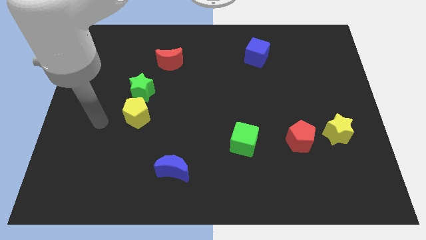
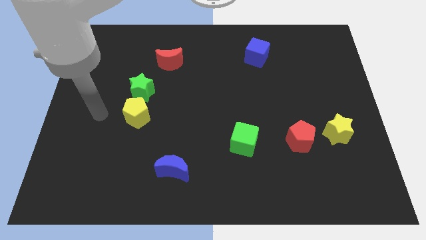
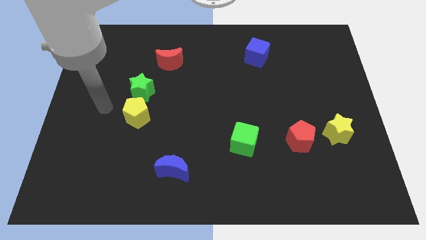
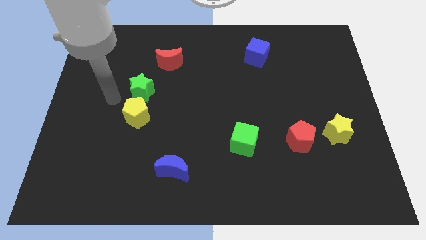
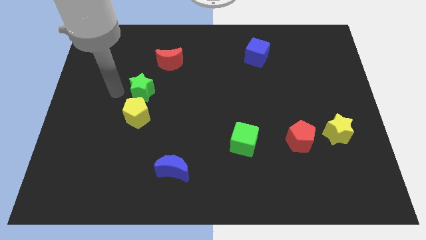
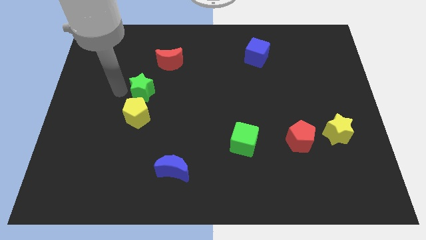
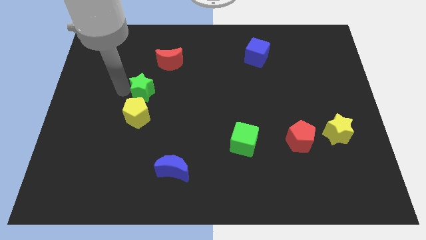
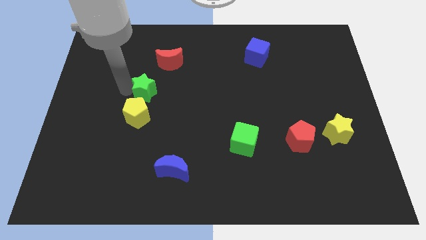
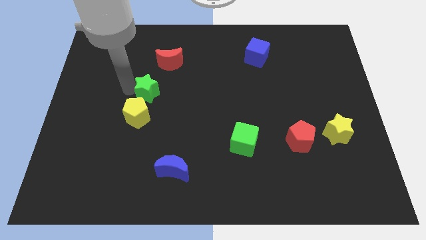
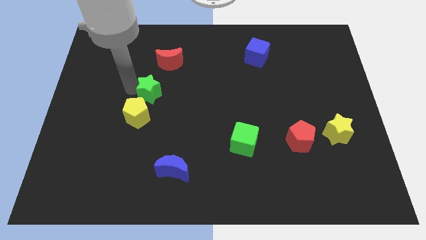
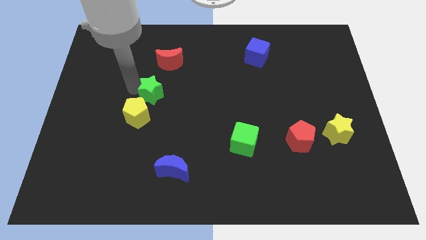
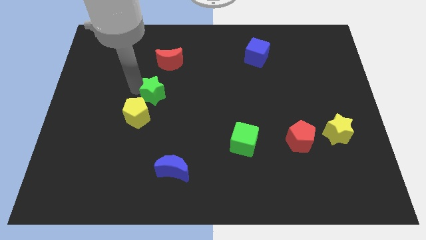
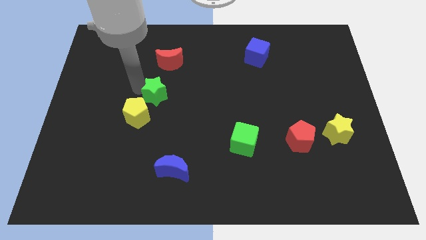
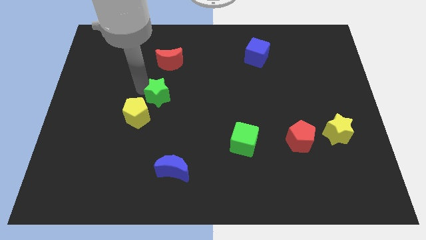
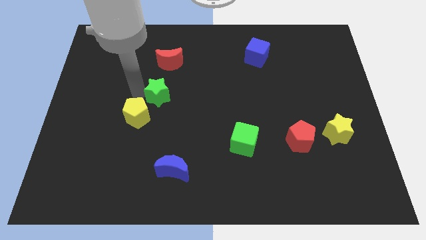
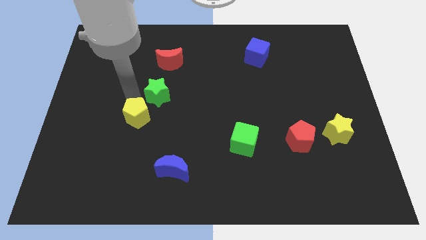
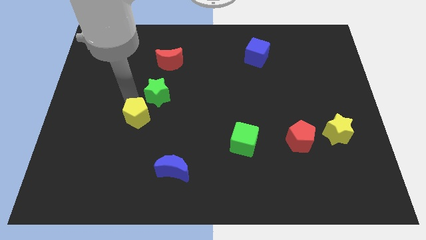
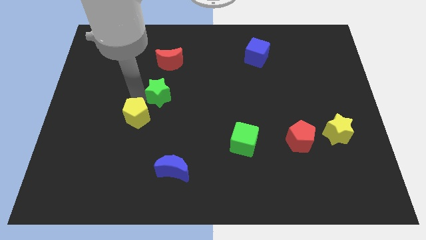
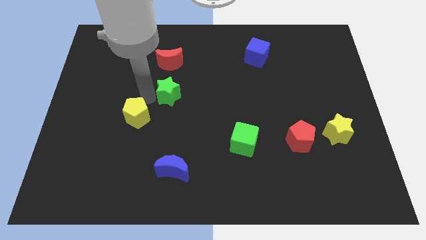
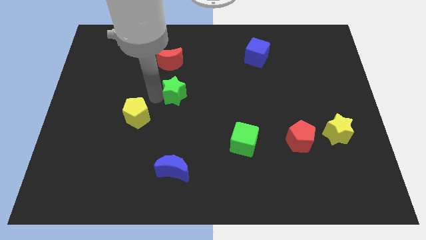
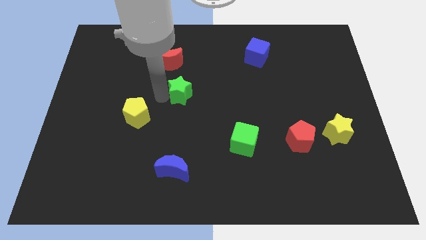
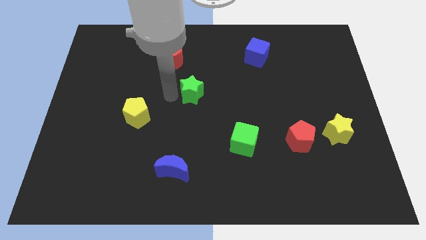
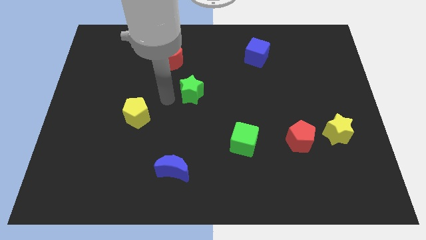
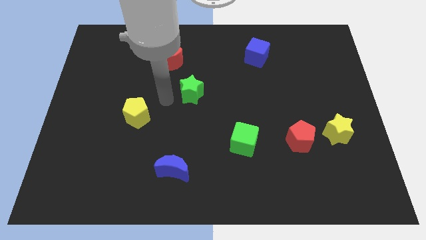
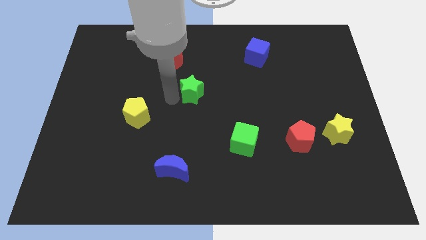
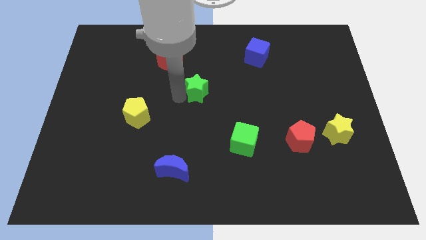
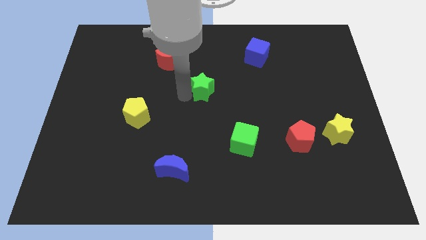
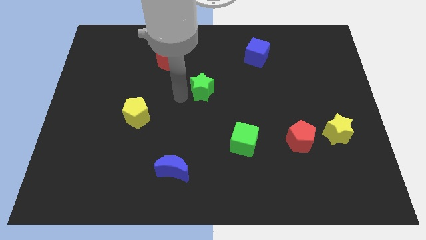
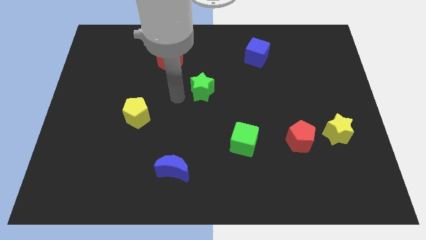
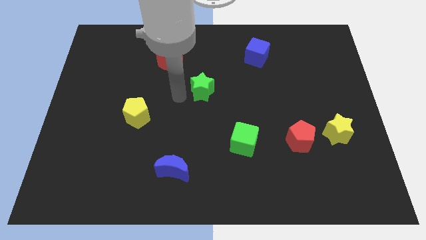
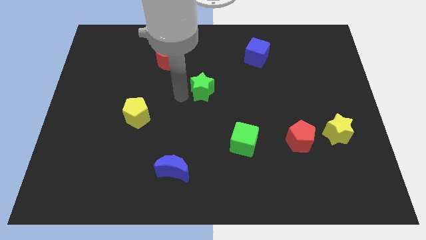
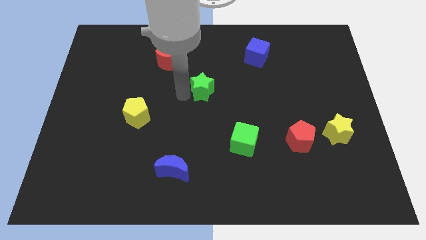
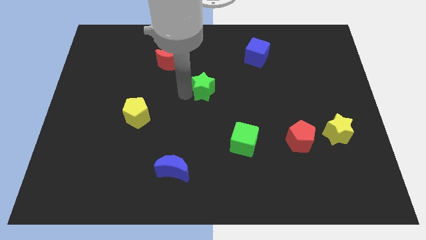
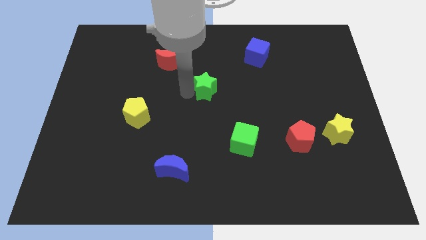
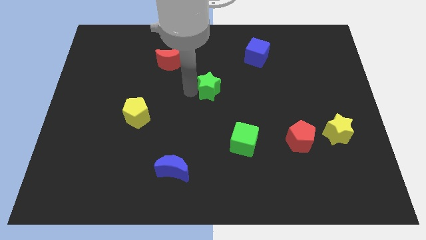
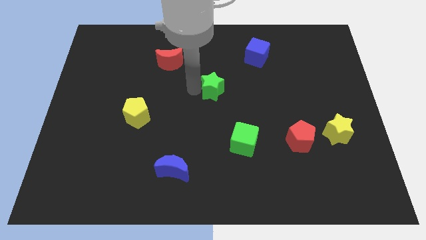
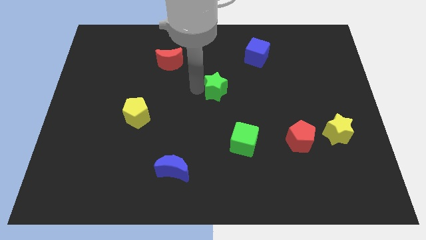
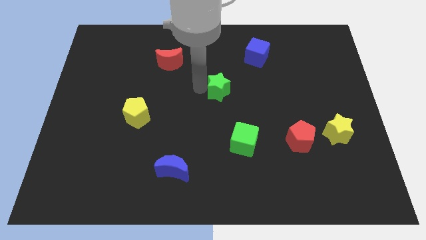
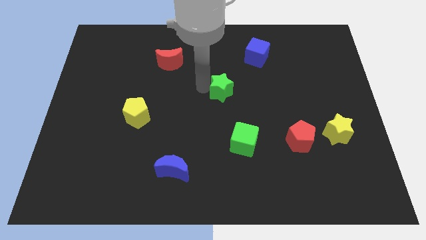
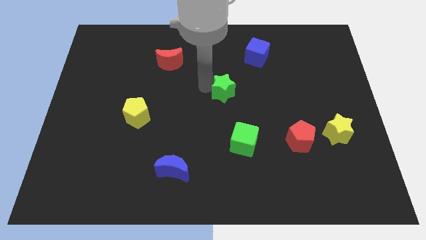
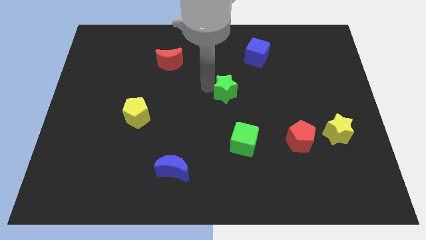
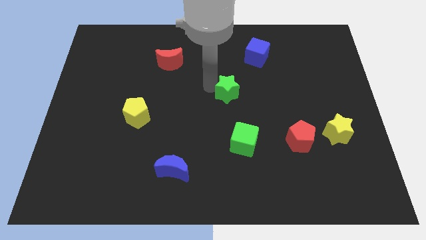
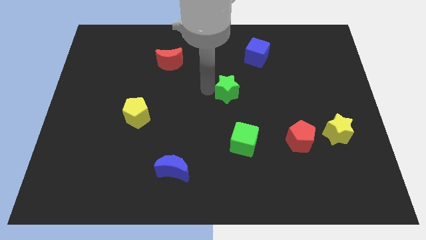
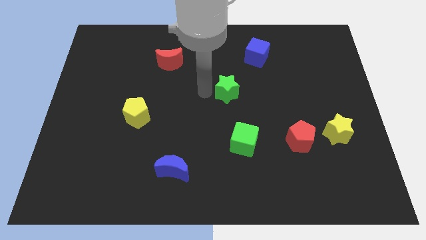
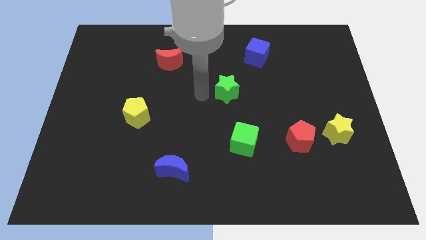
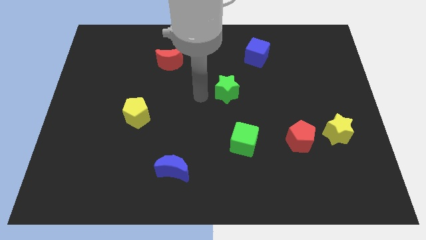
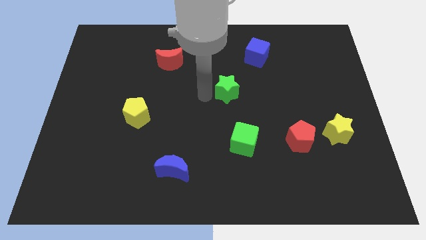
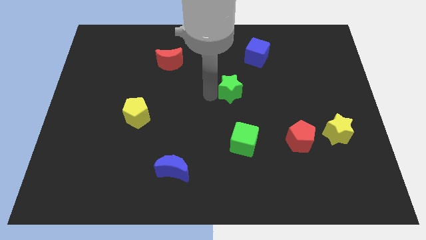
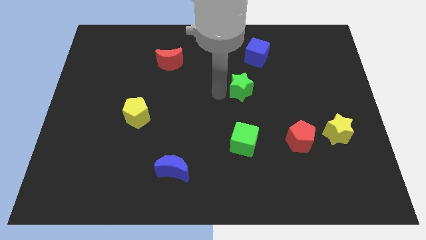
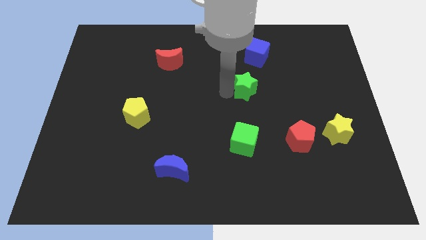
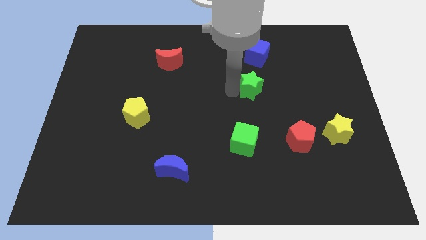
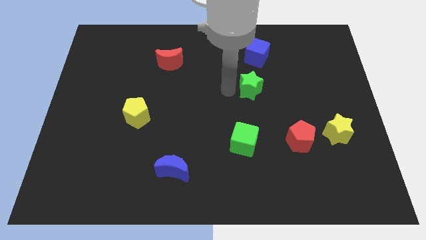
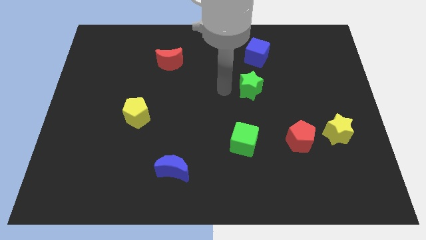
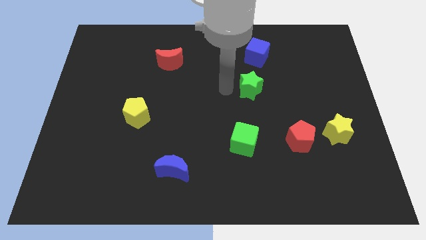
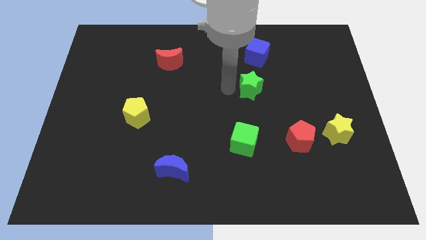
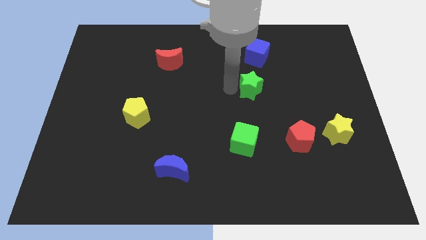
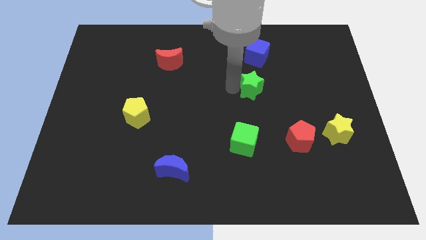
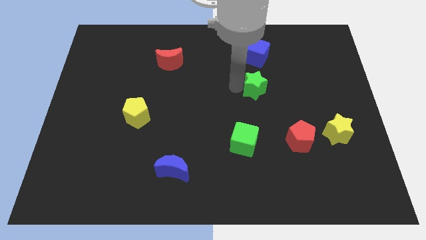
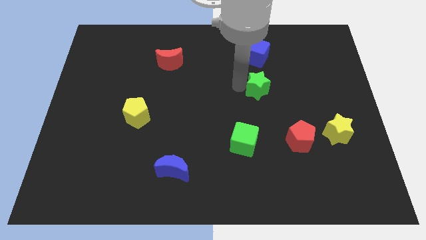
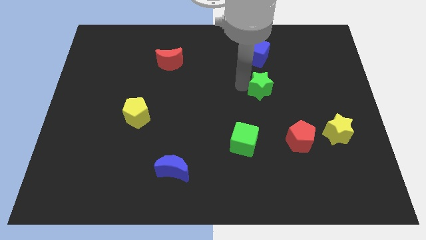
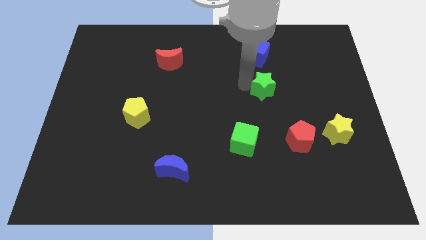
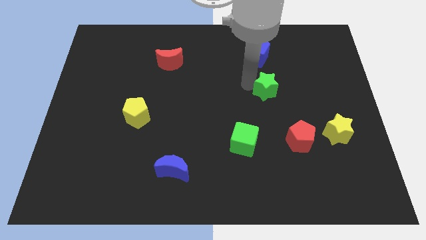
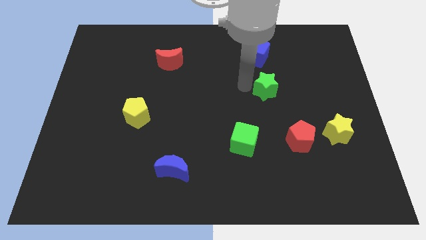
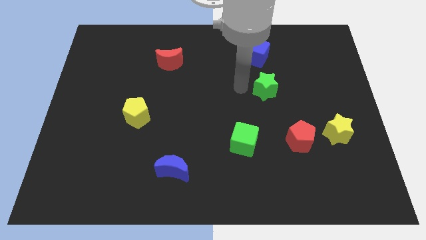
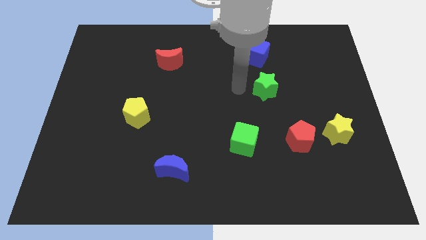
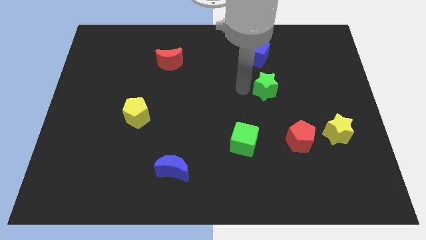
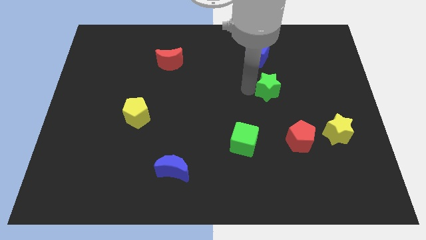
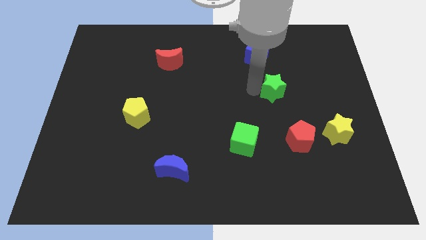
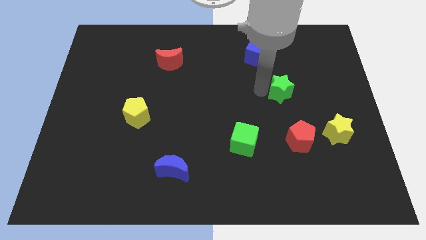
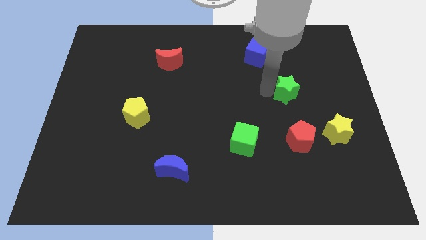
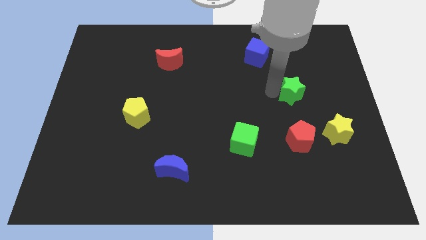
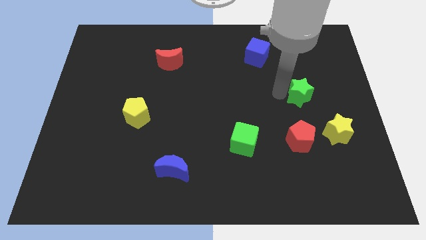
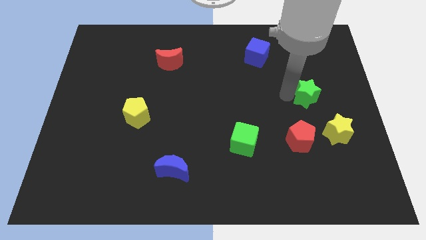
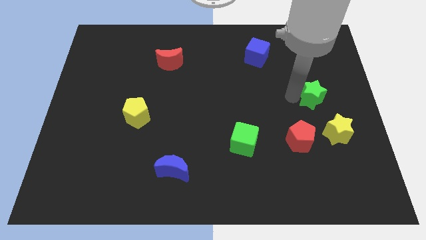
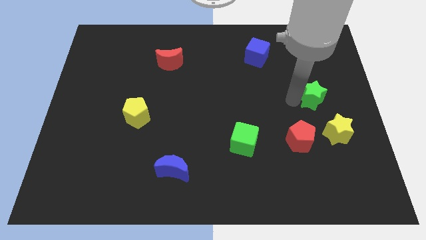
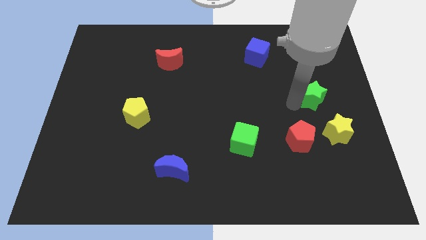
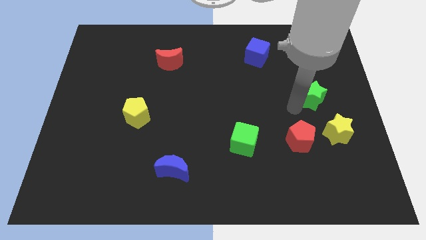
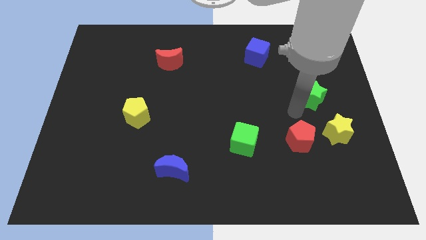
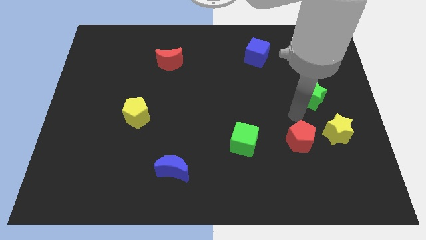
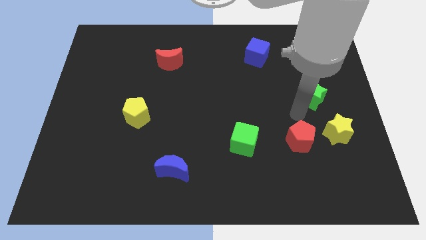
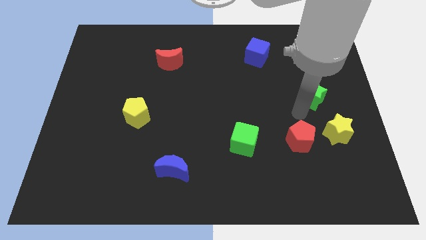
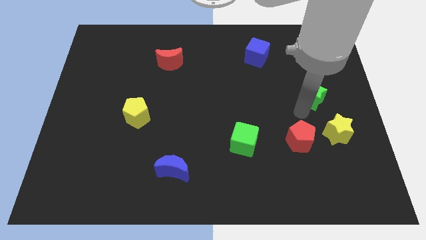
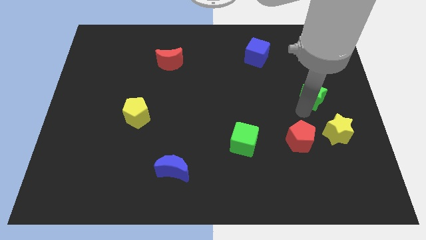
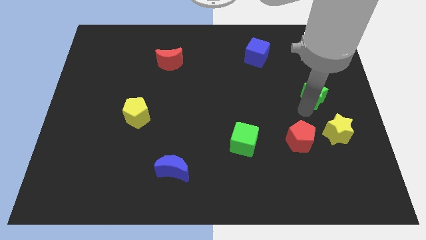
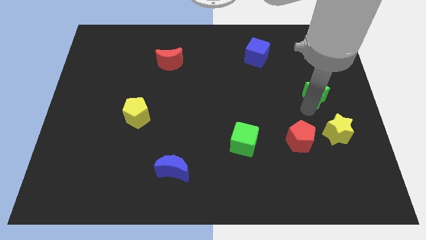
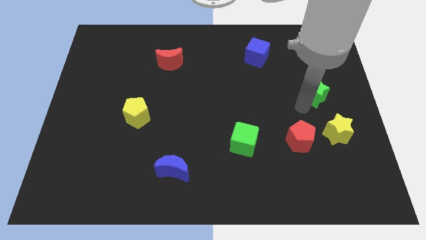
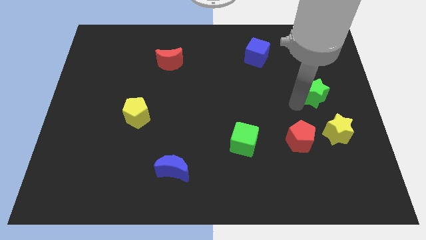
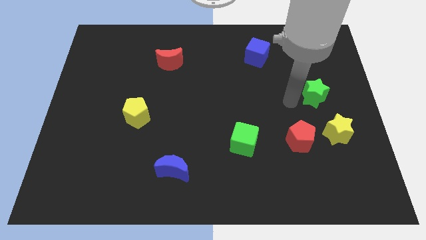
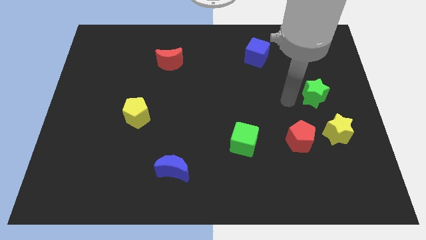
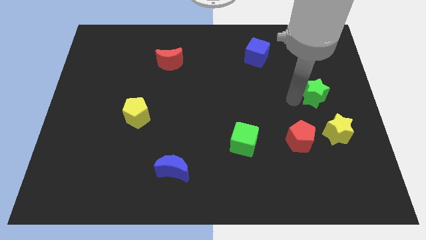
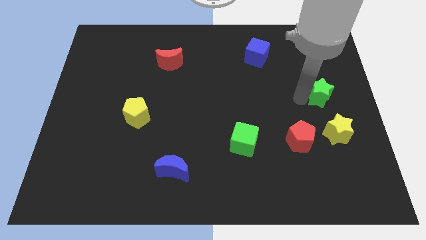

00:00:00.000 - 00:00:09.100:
slide the green star to the right side
